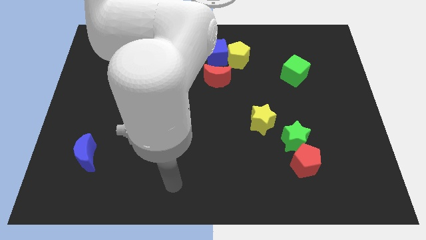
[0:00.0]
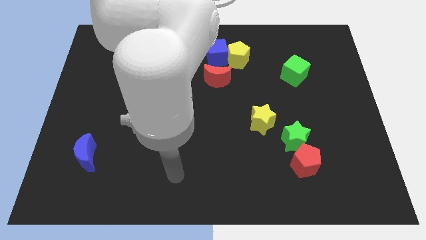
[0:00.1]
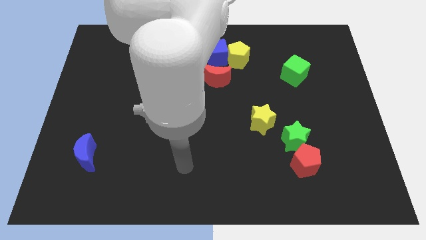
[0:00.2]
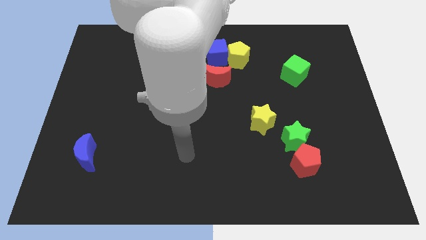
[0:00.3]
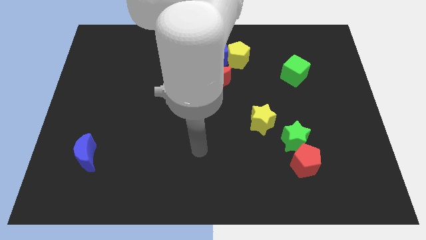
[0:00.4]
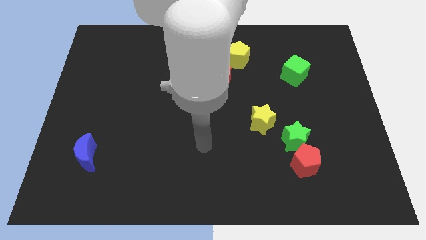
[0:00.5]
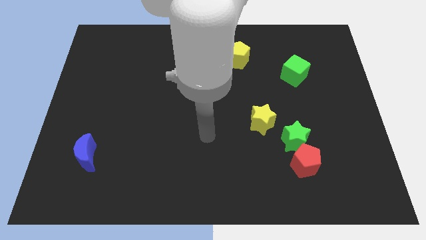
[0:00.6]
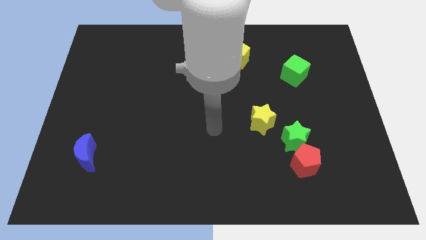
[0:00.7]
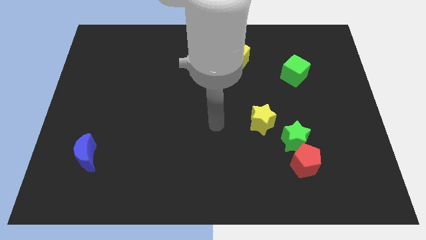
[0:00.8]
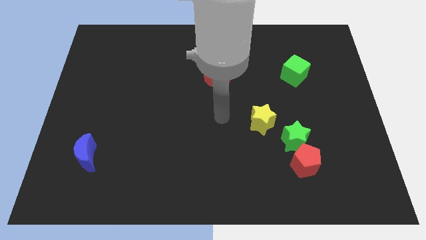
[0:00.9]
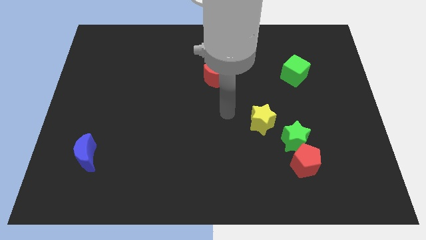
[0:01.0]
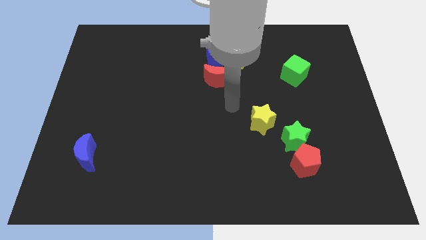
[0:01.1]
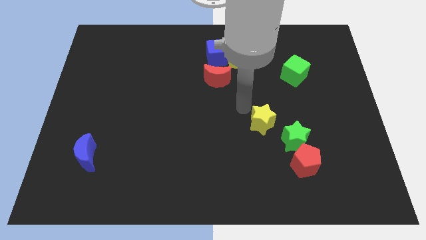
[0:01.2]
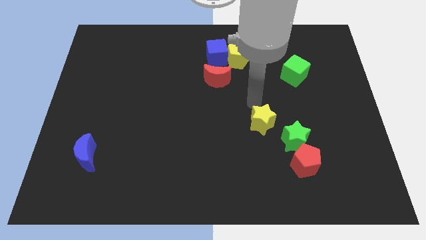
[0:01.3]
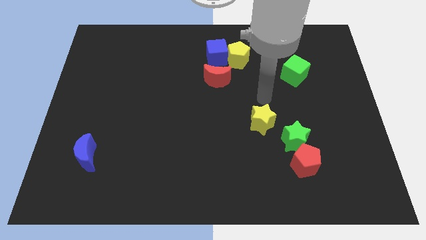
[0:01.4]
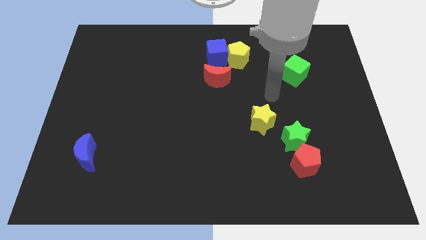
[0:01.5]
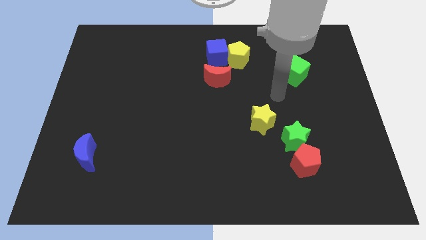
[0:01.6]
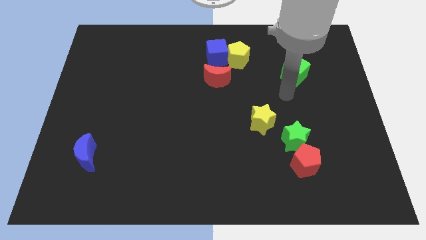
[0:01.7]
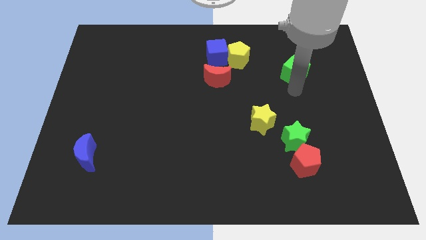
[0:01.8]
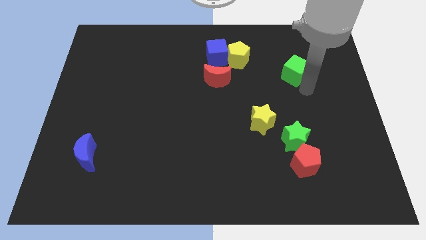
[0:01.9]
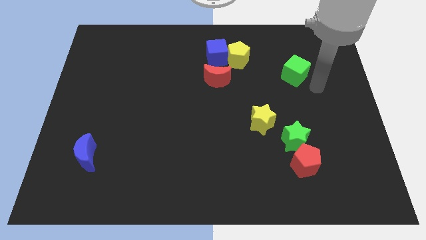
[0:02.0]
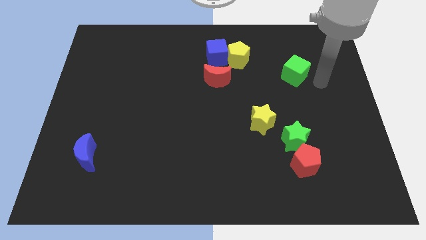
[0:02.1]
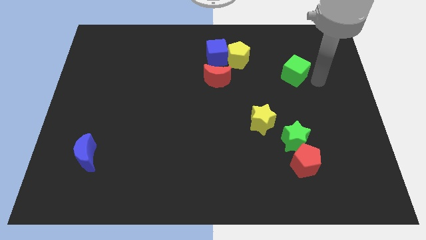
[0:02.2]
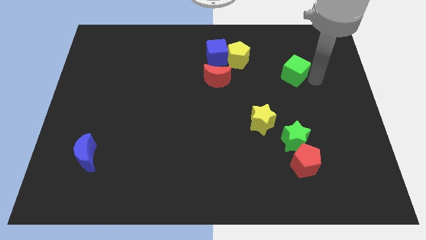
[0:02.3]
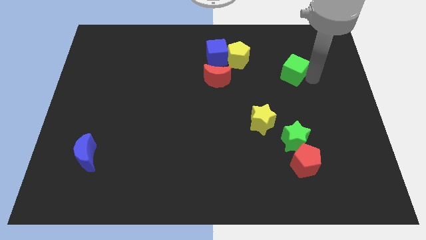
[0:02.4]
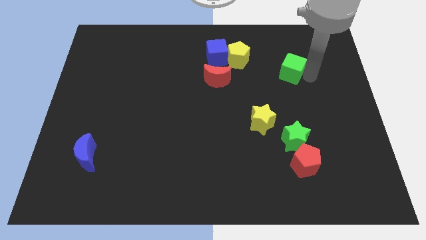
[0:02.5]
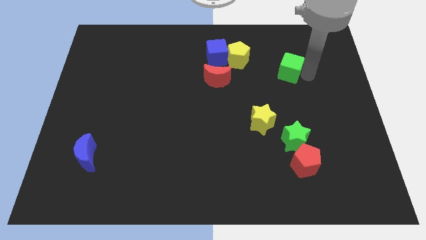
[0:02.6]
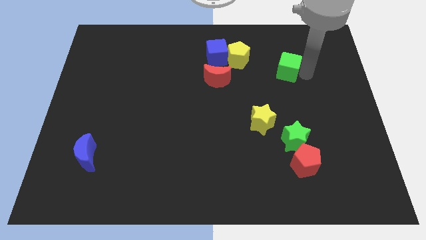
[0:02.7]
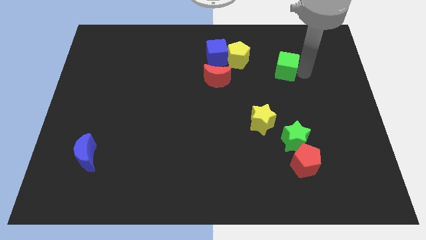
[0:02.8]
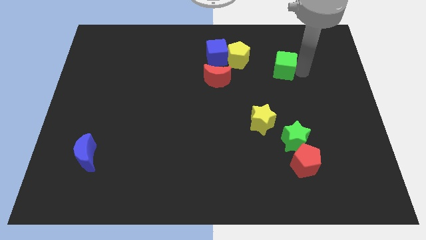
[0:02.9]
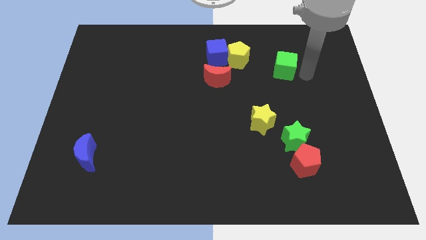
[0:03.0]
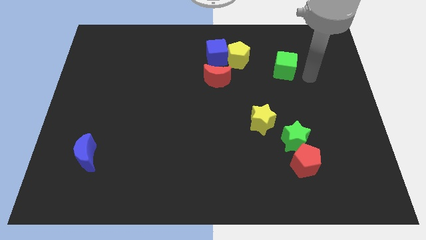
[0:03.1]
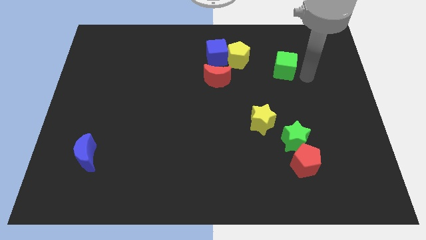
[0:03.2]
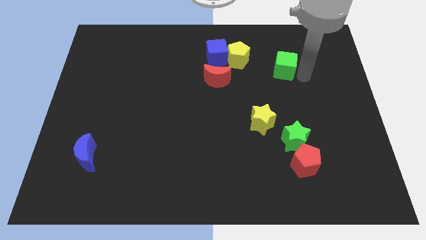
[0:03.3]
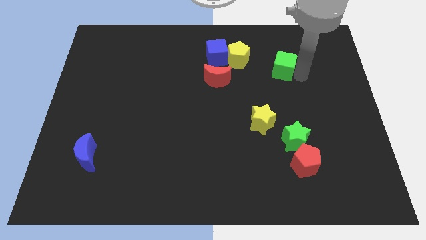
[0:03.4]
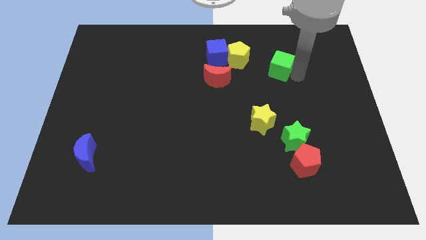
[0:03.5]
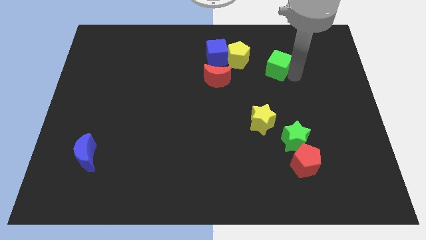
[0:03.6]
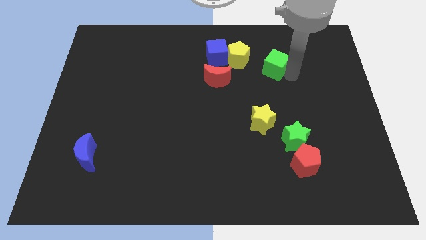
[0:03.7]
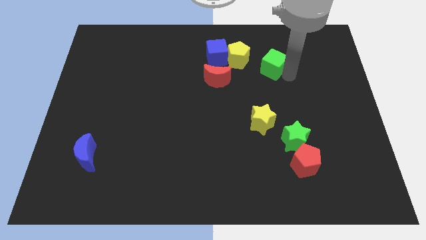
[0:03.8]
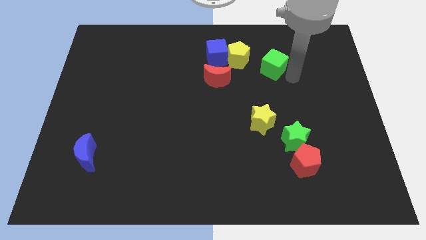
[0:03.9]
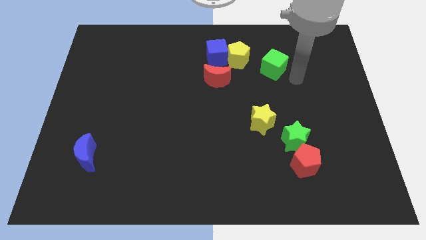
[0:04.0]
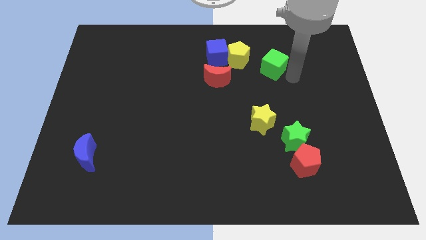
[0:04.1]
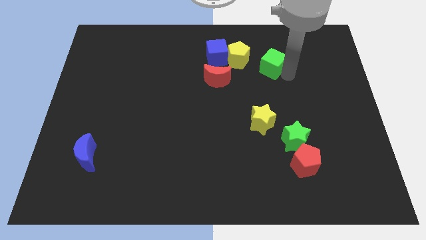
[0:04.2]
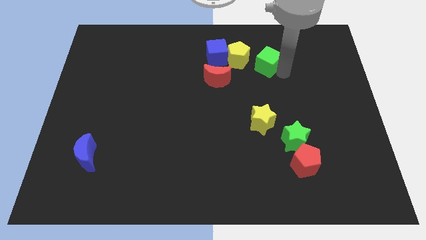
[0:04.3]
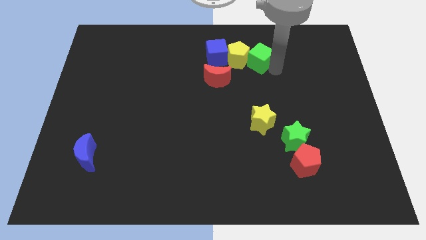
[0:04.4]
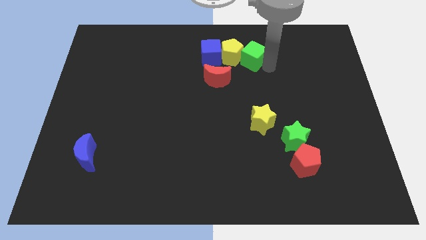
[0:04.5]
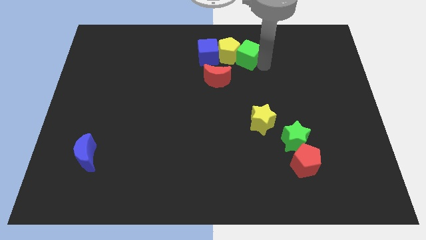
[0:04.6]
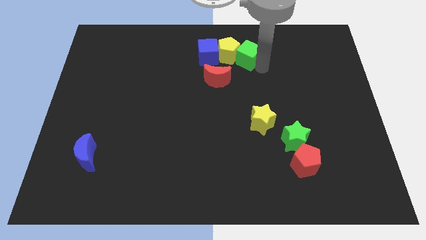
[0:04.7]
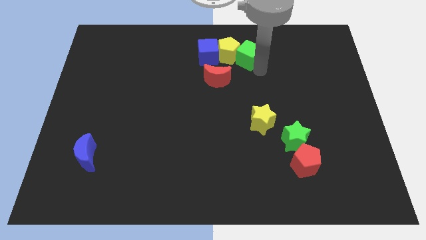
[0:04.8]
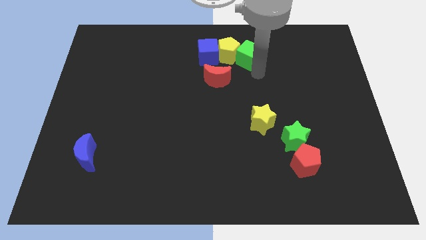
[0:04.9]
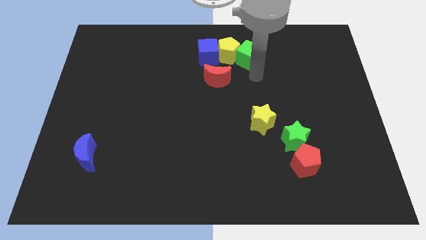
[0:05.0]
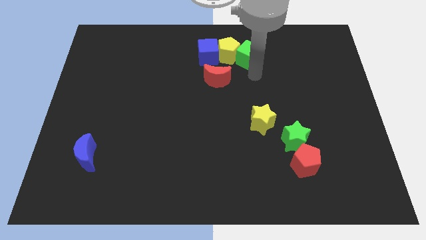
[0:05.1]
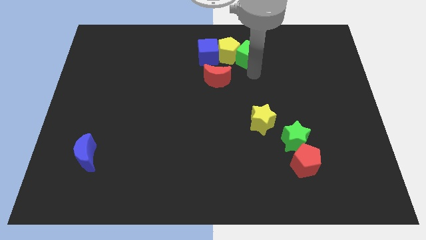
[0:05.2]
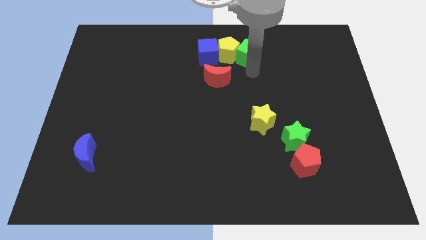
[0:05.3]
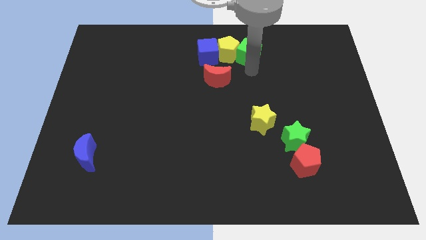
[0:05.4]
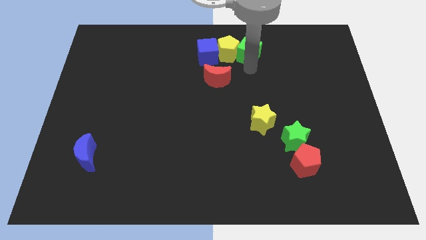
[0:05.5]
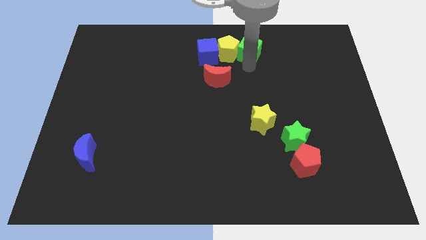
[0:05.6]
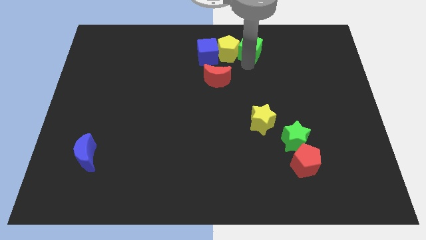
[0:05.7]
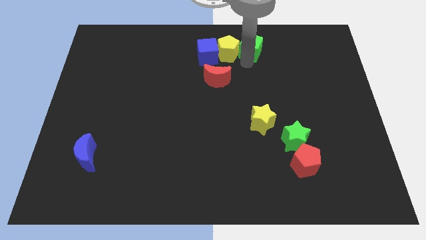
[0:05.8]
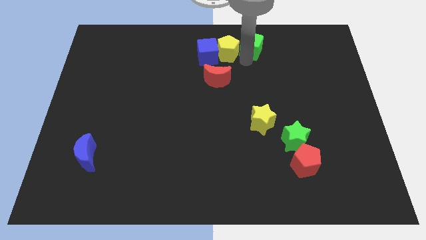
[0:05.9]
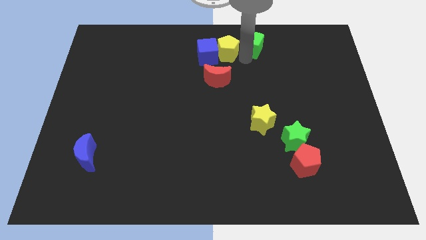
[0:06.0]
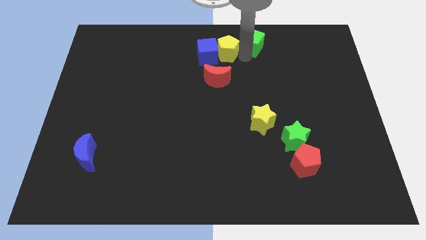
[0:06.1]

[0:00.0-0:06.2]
put the green cube to the towards your base
